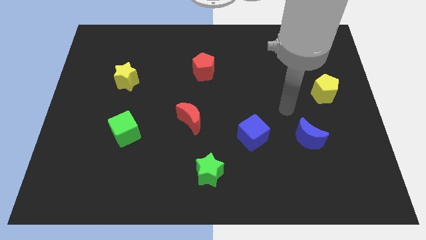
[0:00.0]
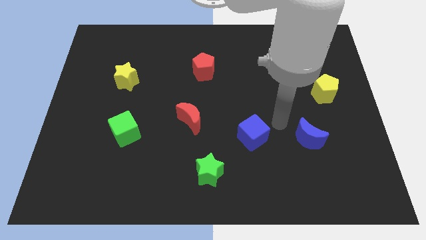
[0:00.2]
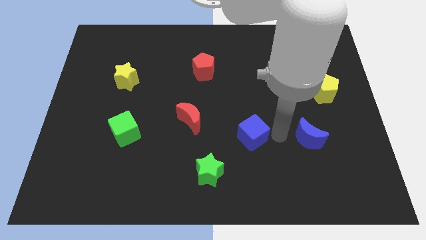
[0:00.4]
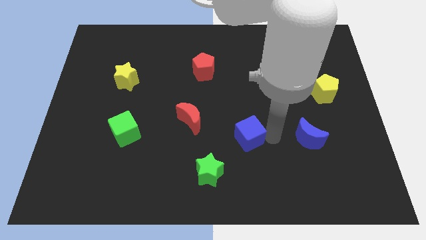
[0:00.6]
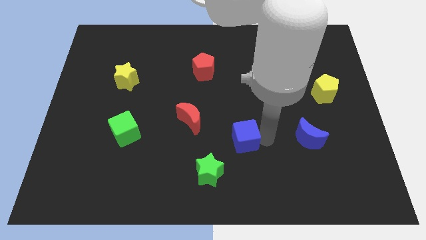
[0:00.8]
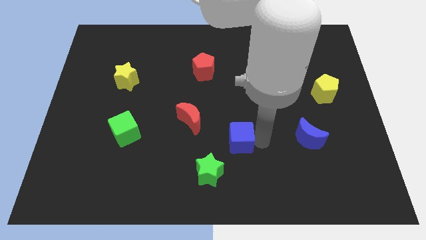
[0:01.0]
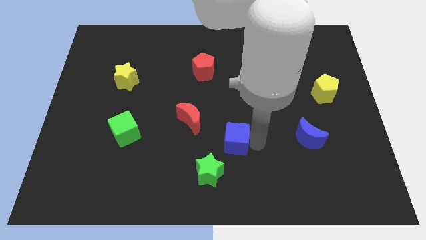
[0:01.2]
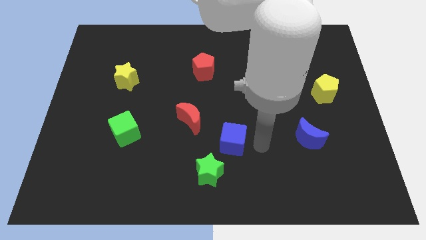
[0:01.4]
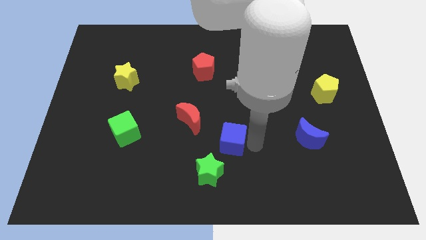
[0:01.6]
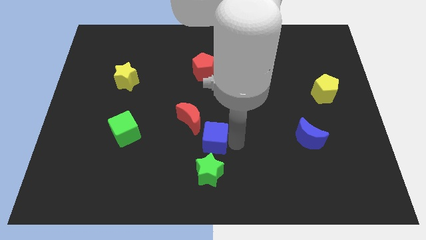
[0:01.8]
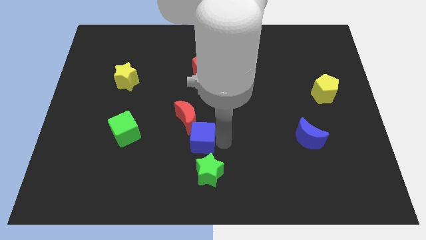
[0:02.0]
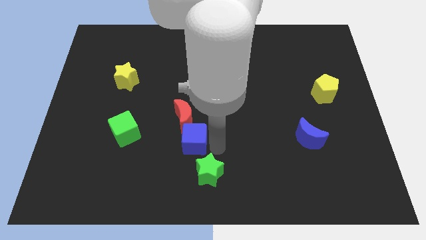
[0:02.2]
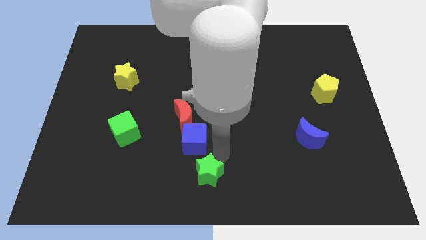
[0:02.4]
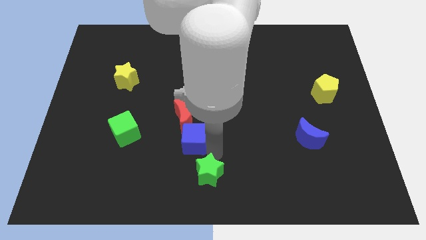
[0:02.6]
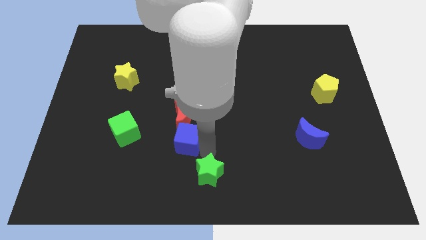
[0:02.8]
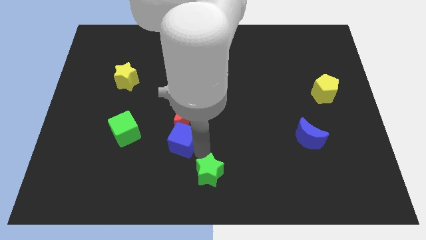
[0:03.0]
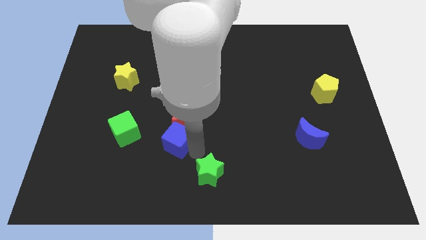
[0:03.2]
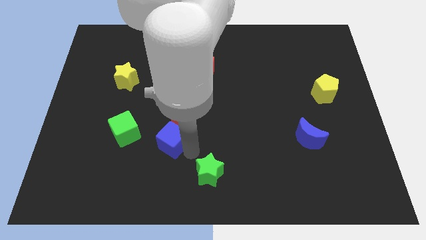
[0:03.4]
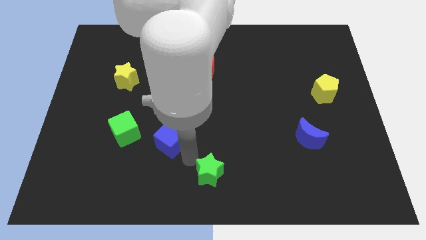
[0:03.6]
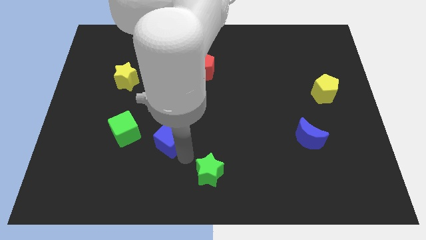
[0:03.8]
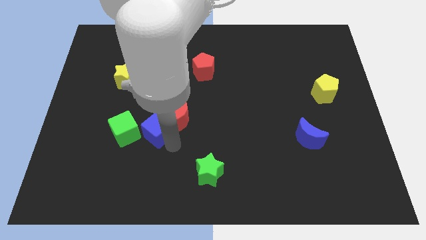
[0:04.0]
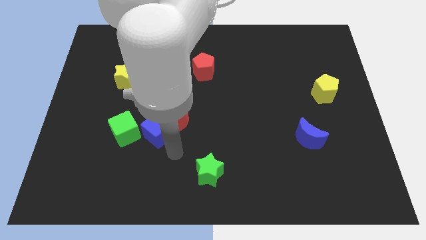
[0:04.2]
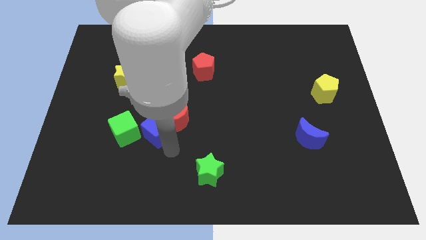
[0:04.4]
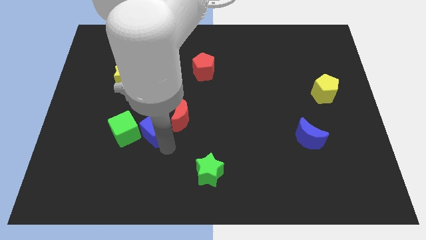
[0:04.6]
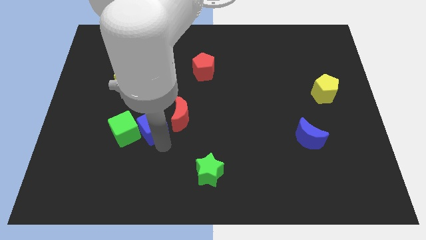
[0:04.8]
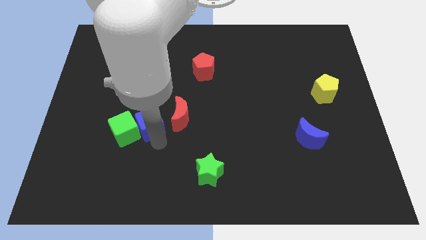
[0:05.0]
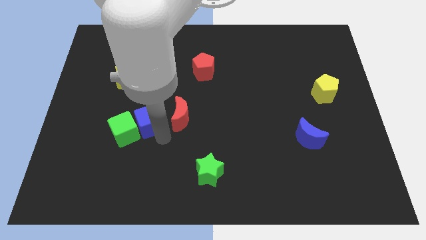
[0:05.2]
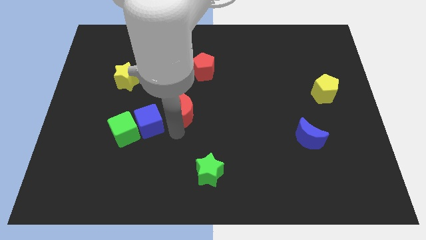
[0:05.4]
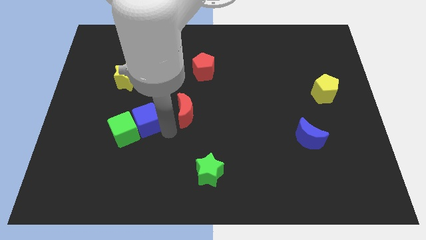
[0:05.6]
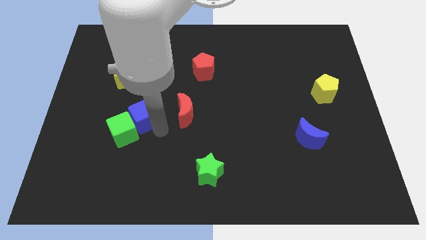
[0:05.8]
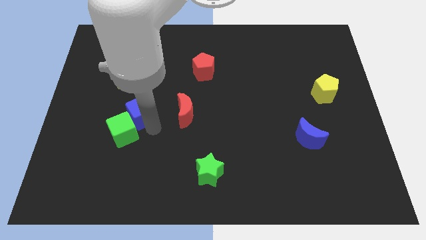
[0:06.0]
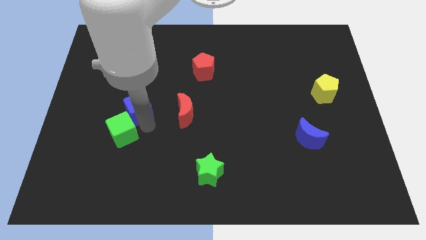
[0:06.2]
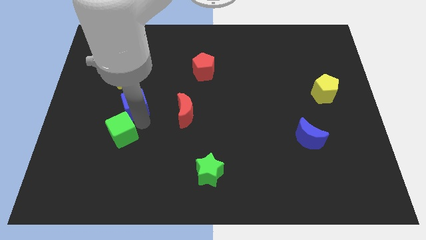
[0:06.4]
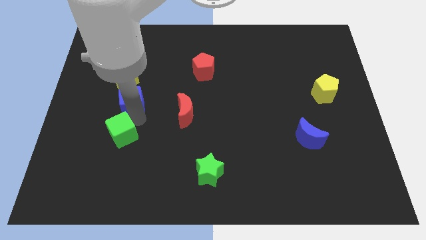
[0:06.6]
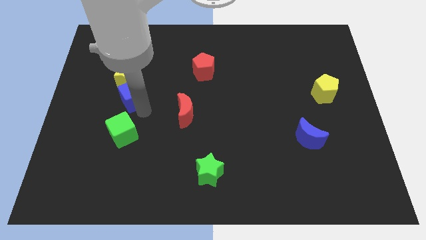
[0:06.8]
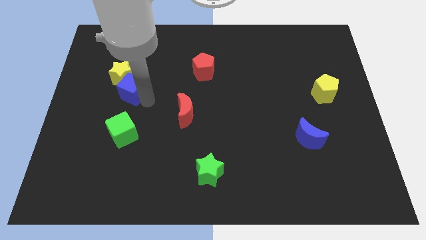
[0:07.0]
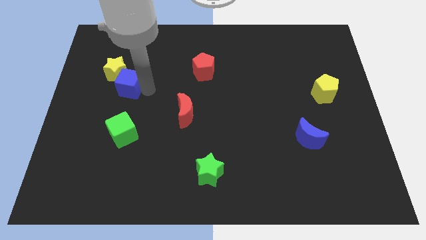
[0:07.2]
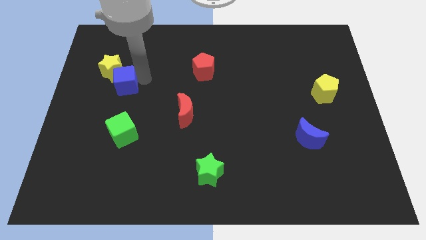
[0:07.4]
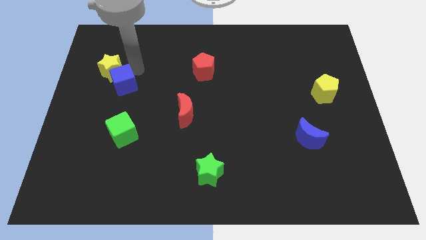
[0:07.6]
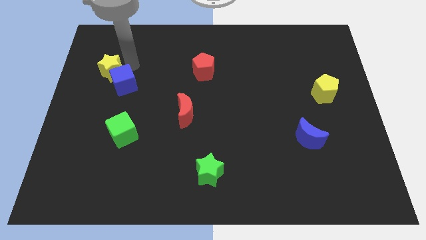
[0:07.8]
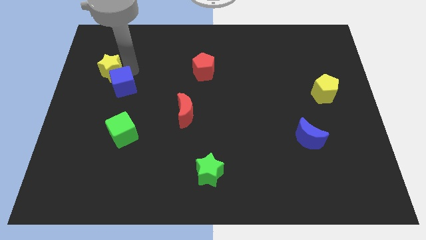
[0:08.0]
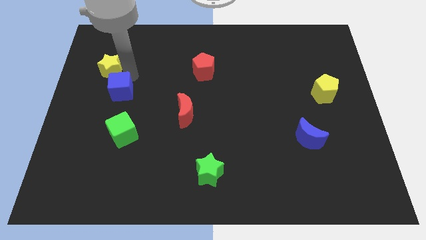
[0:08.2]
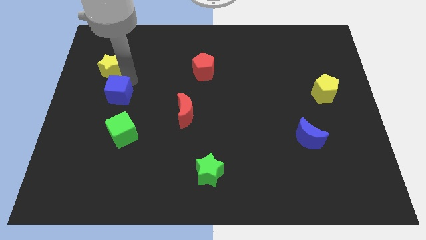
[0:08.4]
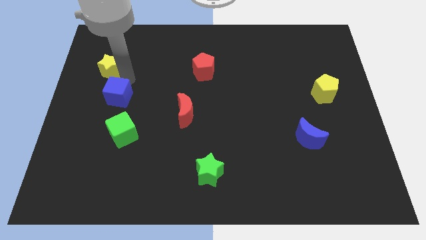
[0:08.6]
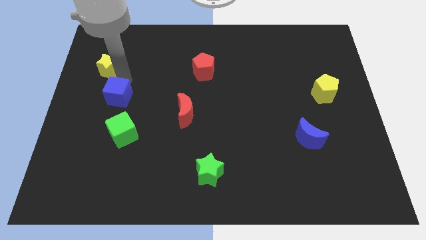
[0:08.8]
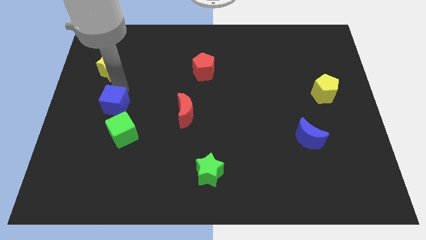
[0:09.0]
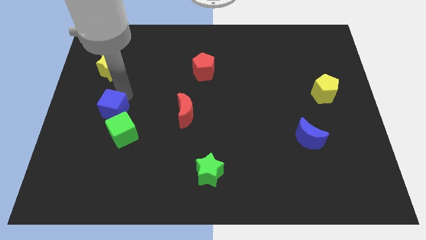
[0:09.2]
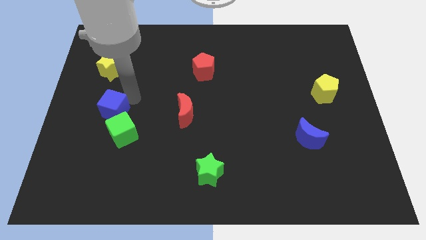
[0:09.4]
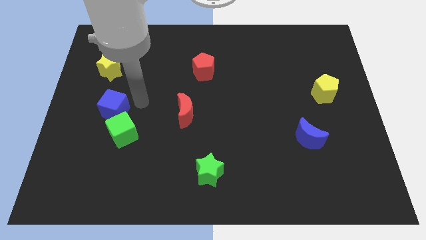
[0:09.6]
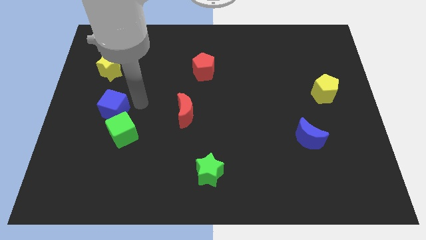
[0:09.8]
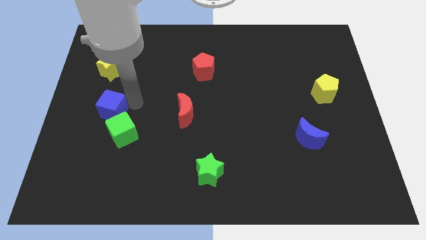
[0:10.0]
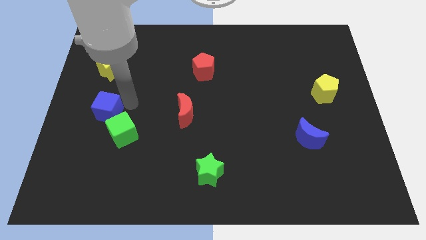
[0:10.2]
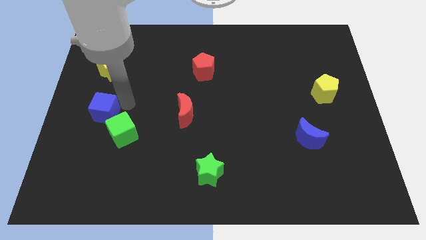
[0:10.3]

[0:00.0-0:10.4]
move the blue cube to the left side

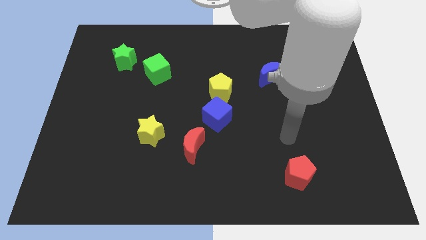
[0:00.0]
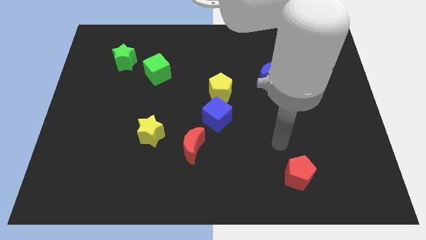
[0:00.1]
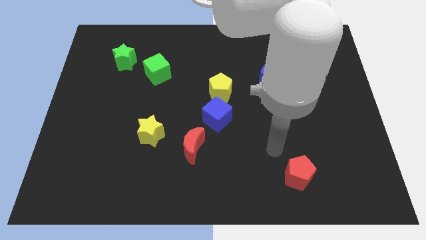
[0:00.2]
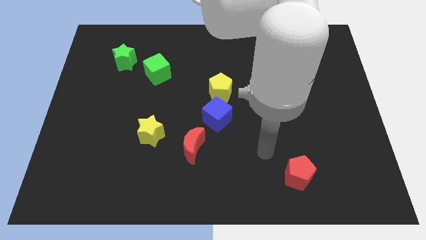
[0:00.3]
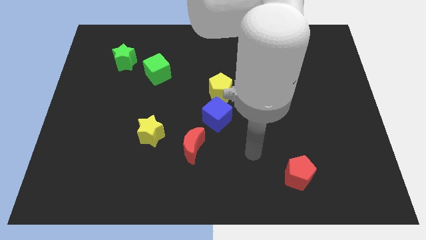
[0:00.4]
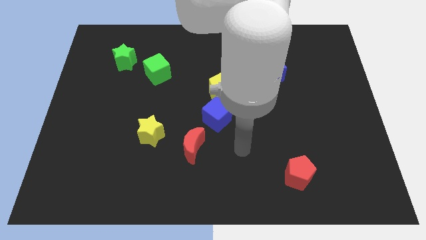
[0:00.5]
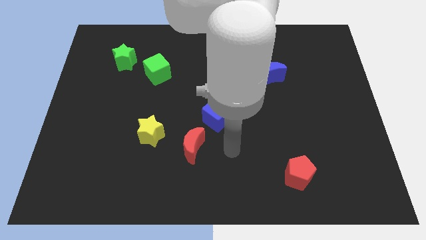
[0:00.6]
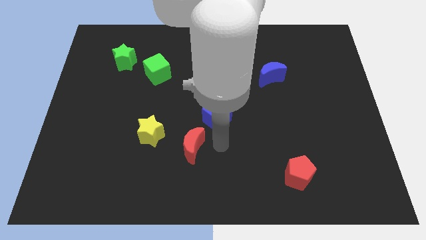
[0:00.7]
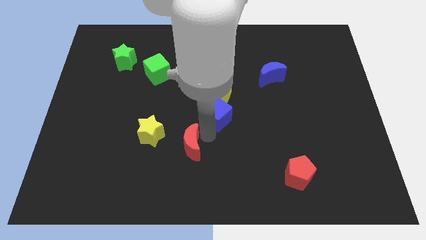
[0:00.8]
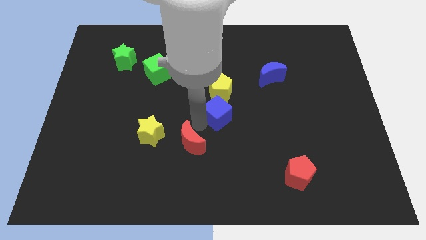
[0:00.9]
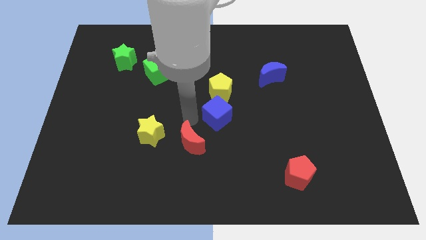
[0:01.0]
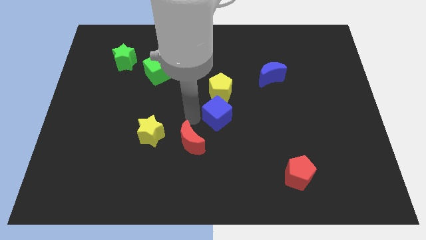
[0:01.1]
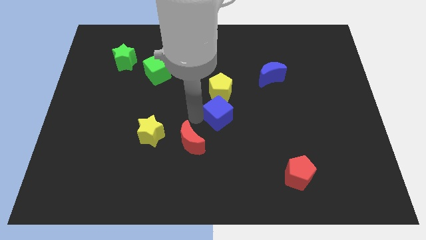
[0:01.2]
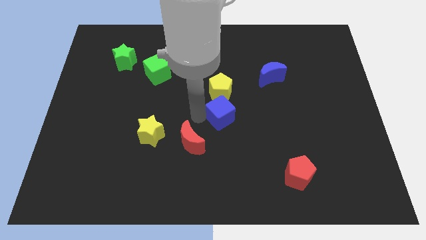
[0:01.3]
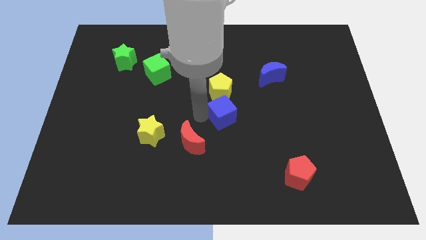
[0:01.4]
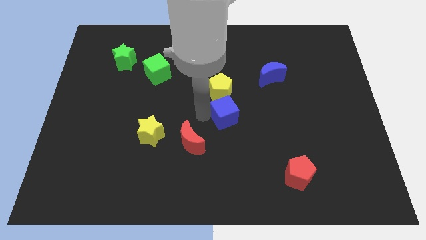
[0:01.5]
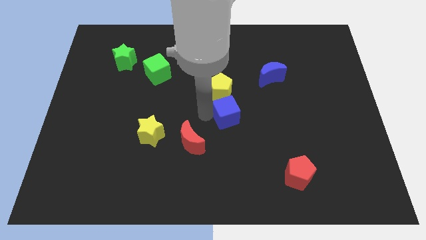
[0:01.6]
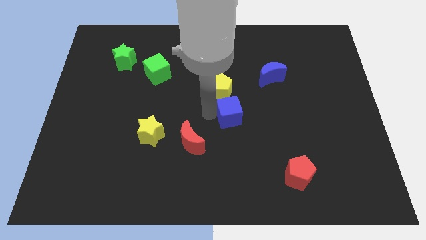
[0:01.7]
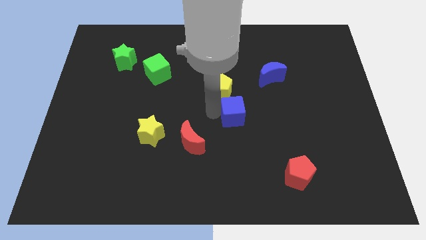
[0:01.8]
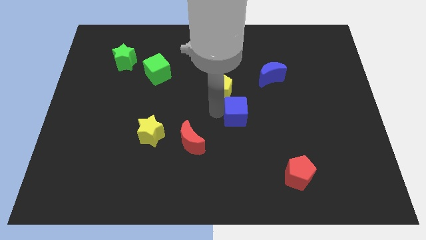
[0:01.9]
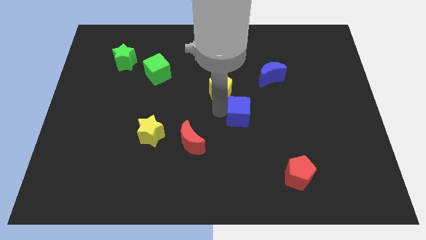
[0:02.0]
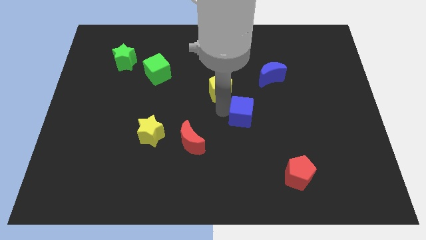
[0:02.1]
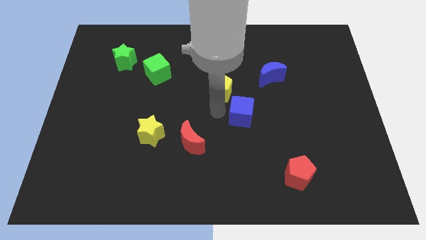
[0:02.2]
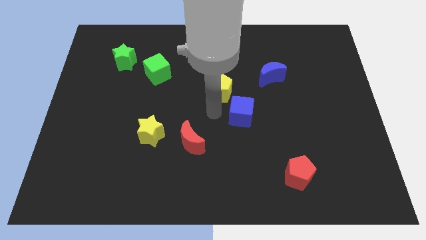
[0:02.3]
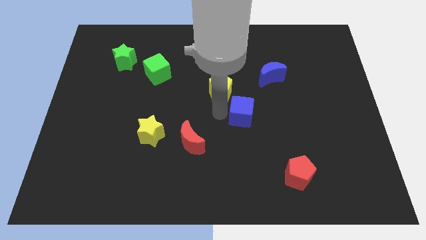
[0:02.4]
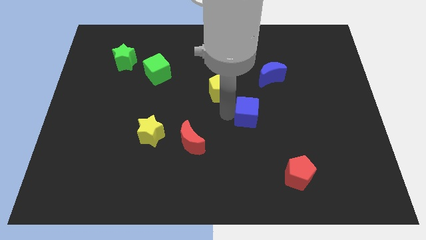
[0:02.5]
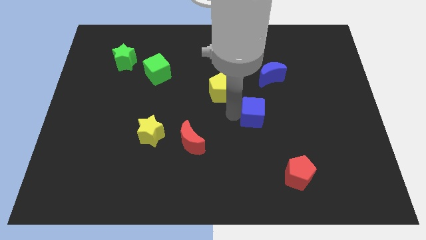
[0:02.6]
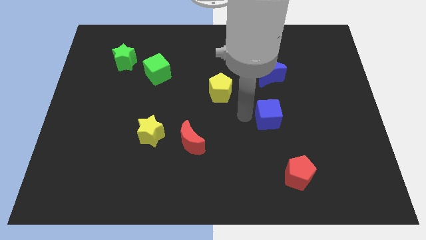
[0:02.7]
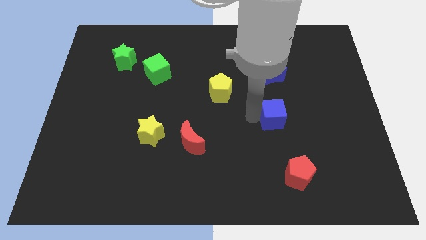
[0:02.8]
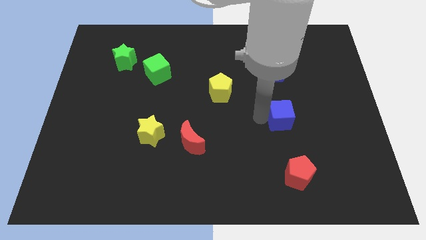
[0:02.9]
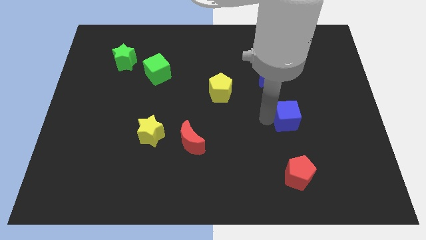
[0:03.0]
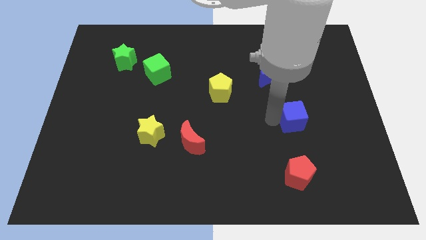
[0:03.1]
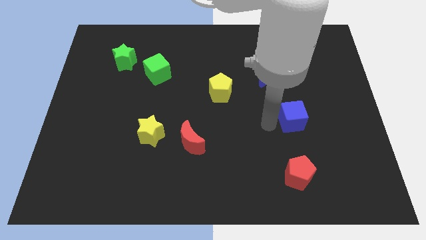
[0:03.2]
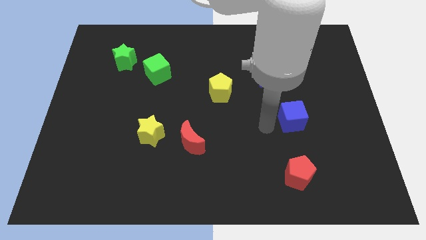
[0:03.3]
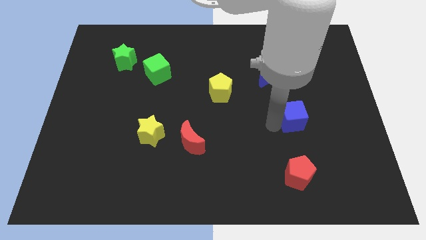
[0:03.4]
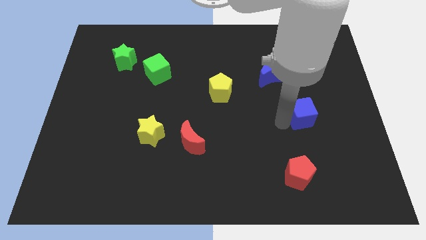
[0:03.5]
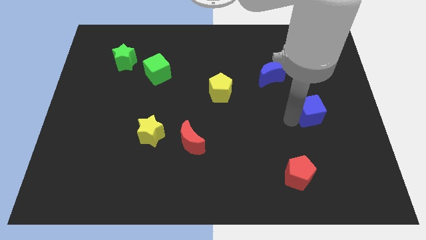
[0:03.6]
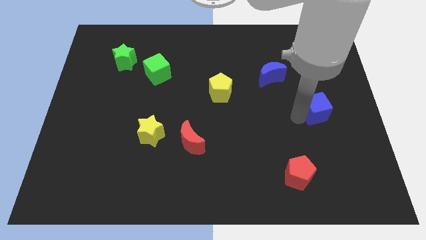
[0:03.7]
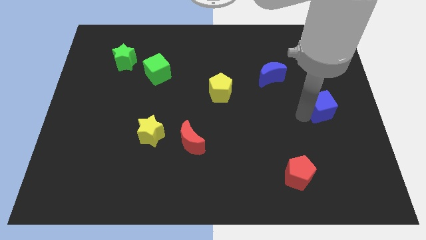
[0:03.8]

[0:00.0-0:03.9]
put the blue cube to the right side
